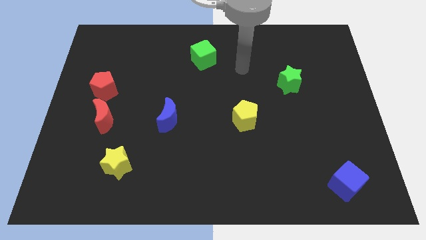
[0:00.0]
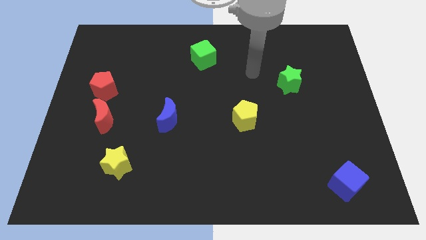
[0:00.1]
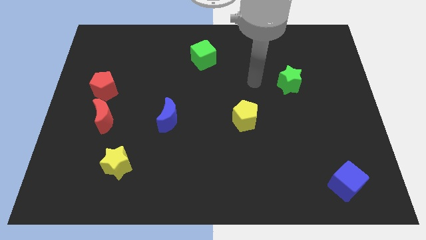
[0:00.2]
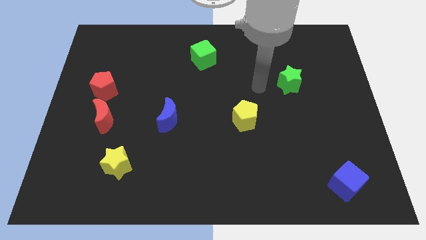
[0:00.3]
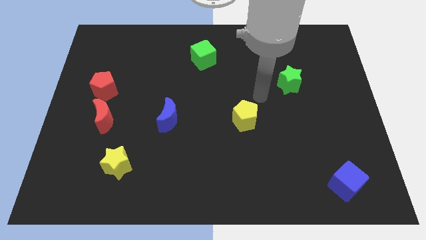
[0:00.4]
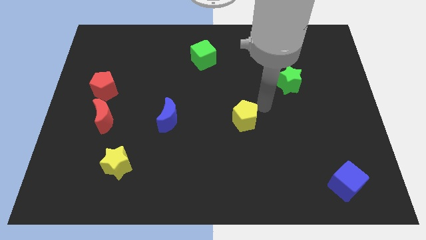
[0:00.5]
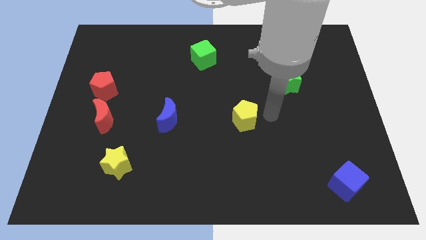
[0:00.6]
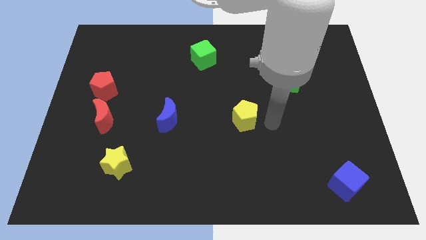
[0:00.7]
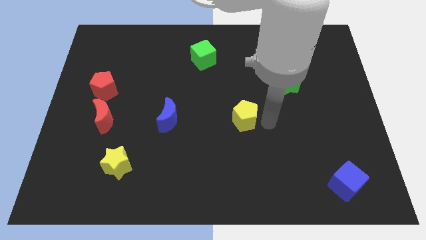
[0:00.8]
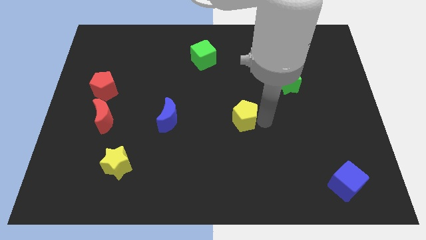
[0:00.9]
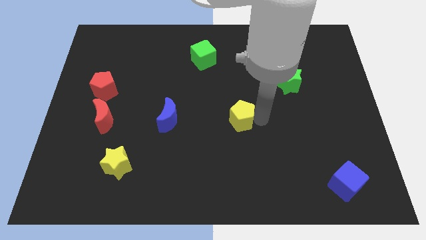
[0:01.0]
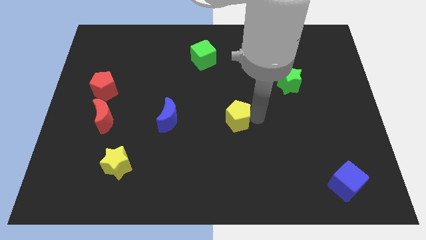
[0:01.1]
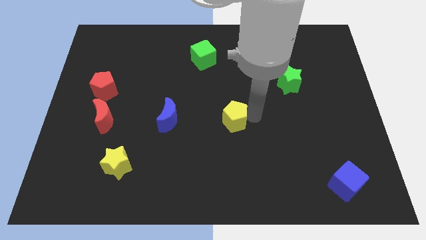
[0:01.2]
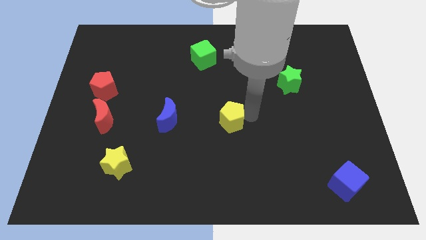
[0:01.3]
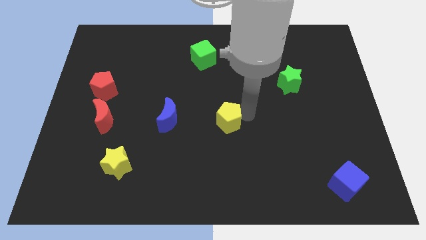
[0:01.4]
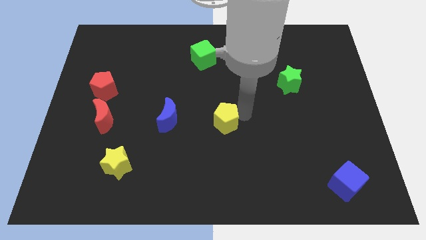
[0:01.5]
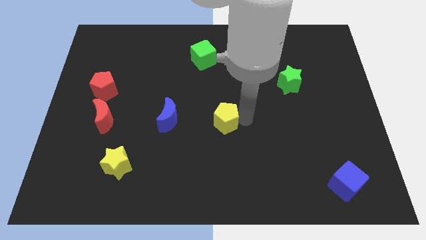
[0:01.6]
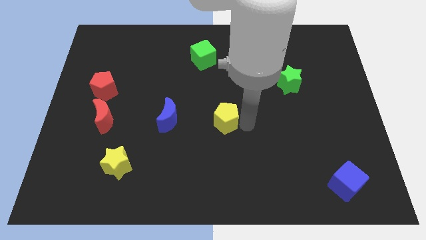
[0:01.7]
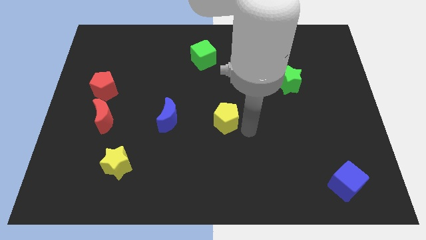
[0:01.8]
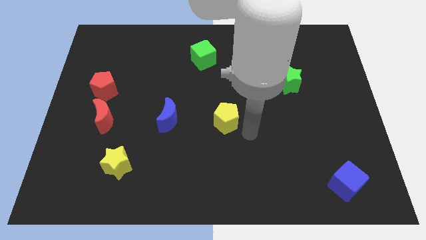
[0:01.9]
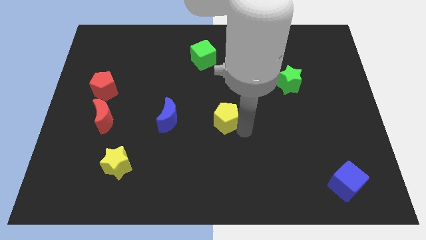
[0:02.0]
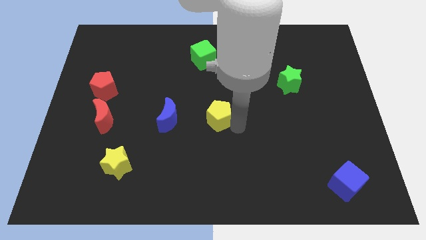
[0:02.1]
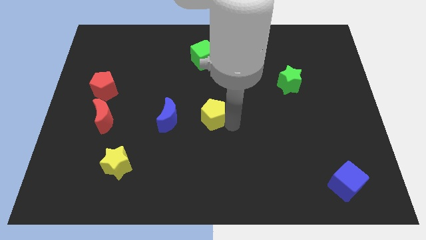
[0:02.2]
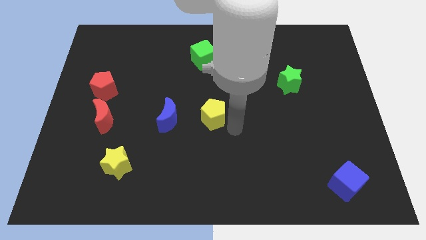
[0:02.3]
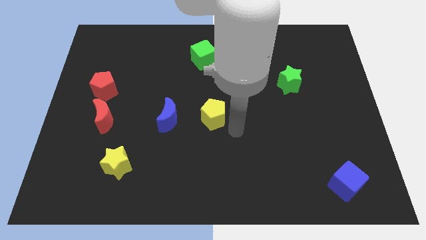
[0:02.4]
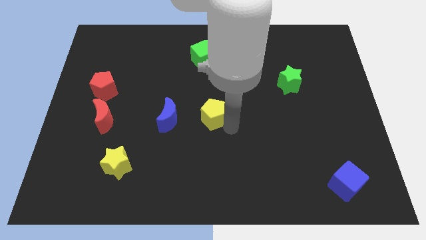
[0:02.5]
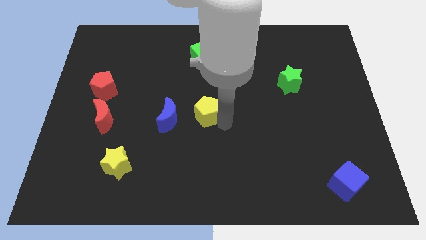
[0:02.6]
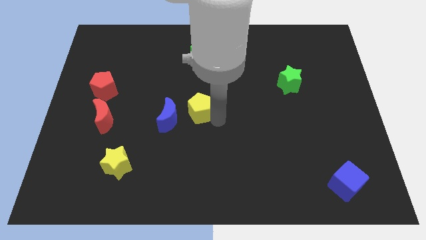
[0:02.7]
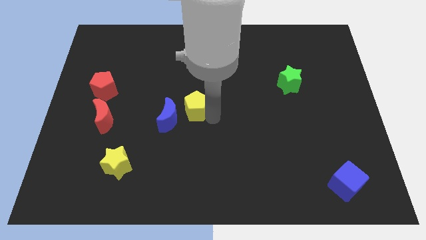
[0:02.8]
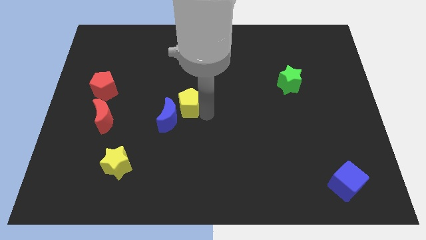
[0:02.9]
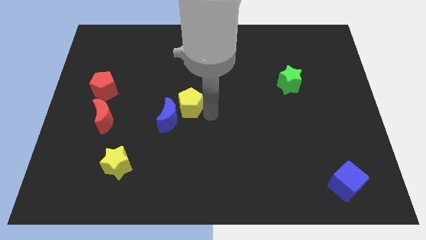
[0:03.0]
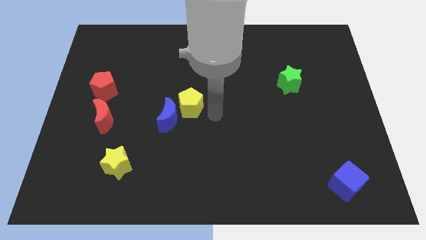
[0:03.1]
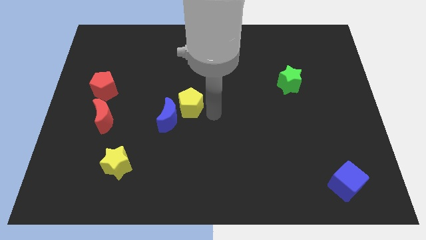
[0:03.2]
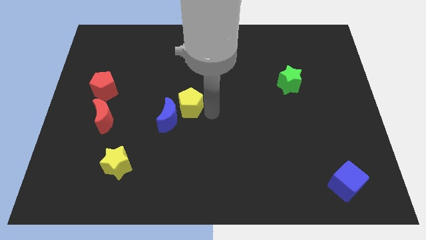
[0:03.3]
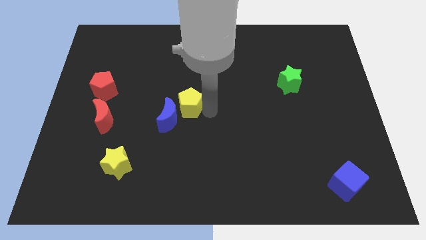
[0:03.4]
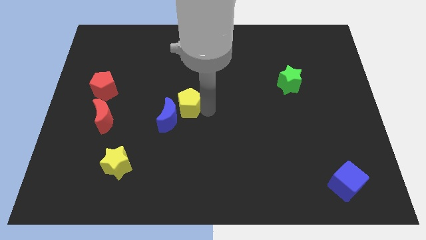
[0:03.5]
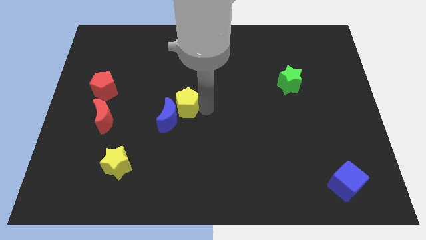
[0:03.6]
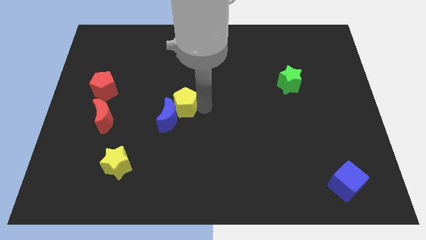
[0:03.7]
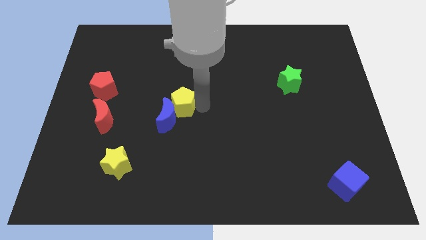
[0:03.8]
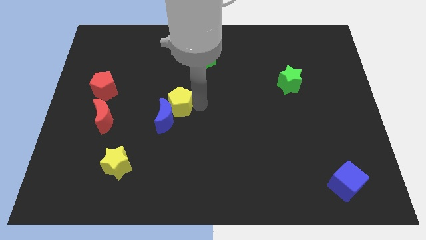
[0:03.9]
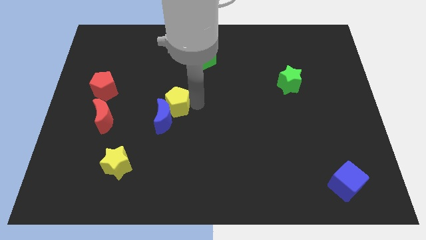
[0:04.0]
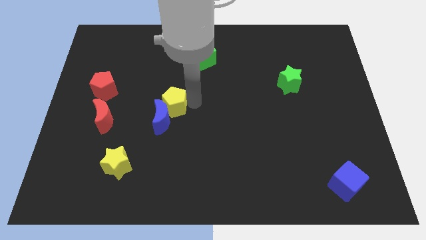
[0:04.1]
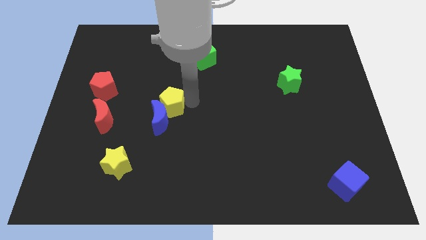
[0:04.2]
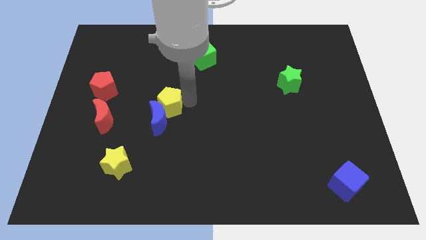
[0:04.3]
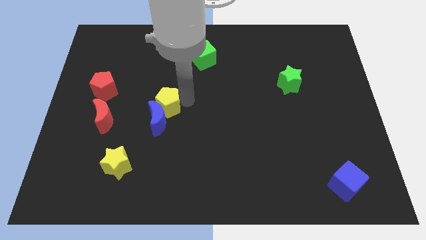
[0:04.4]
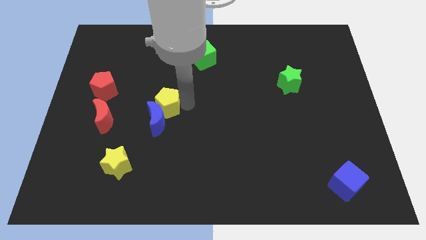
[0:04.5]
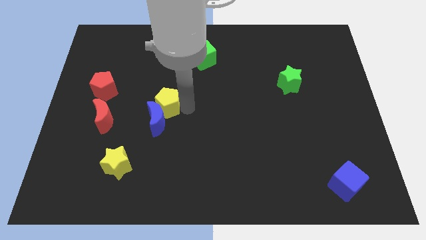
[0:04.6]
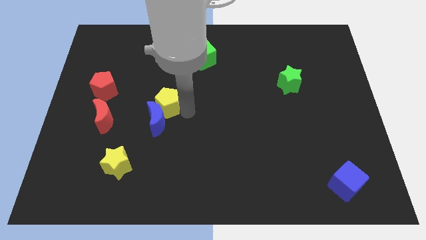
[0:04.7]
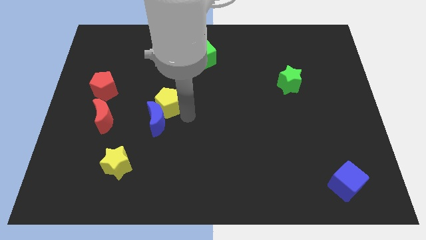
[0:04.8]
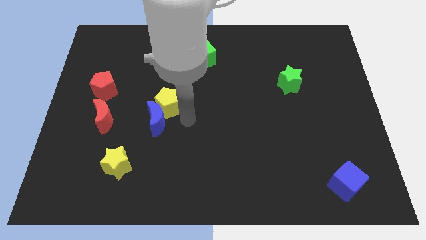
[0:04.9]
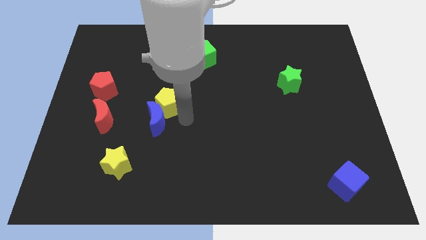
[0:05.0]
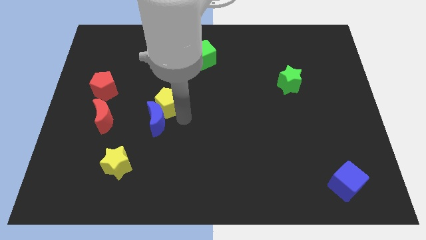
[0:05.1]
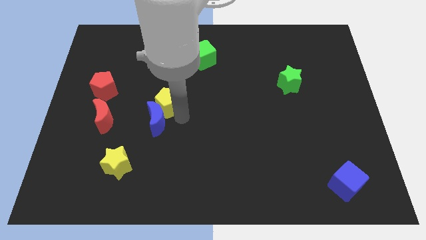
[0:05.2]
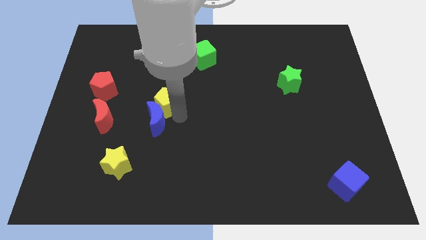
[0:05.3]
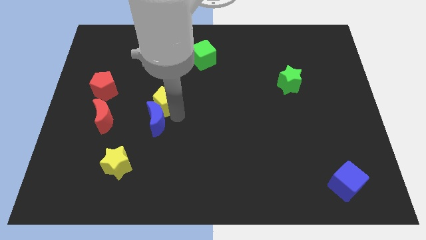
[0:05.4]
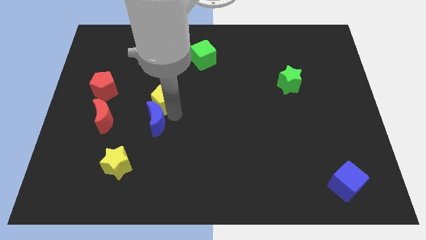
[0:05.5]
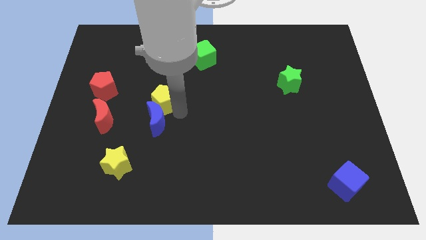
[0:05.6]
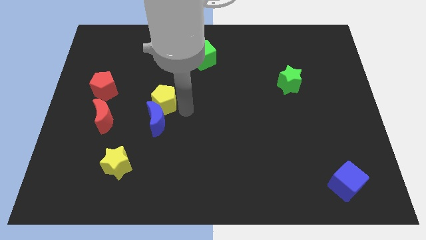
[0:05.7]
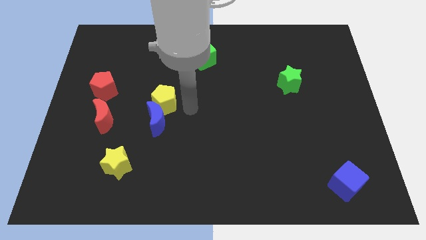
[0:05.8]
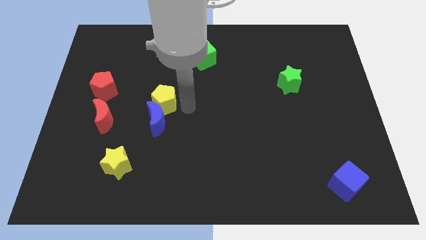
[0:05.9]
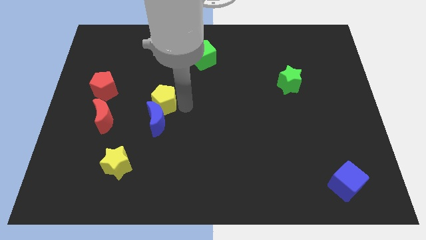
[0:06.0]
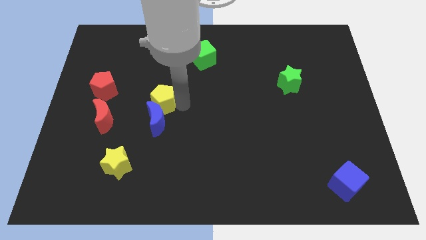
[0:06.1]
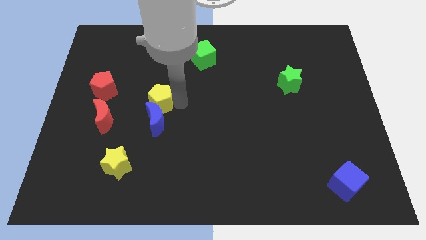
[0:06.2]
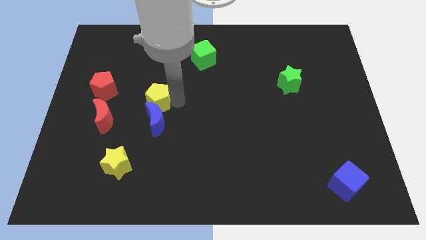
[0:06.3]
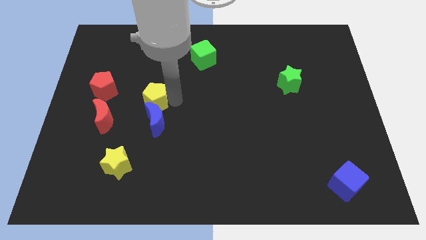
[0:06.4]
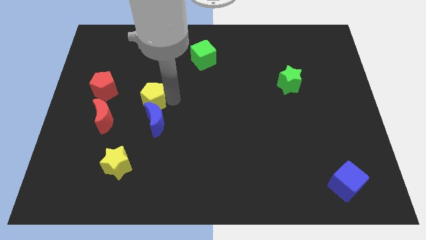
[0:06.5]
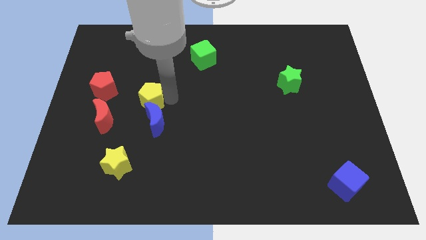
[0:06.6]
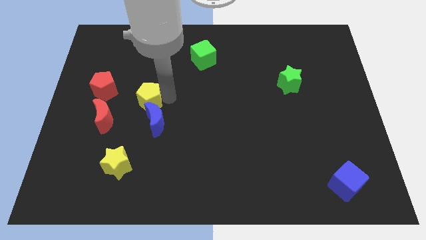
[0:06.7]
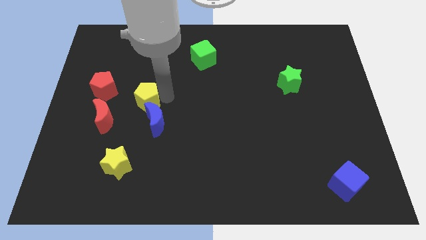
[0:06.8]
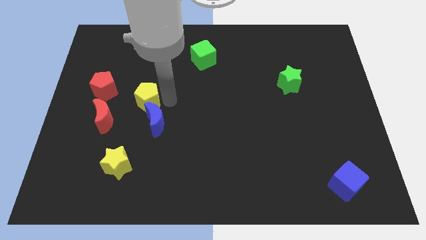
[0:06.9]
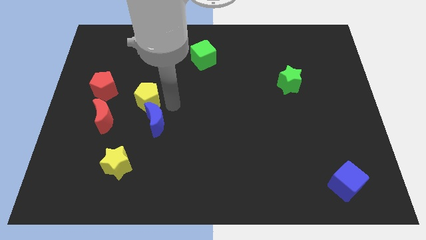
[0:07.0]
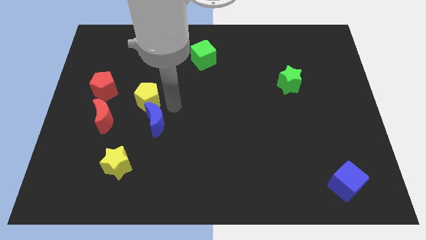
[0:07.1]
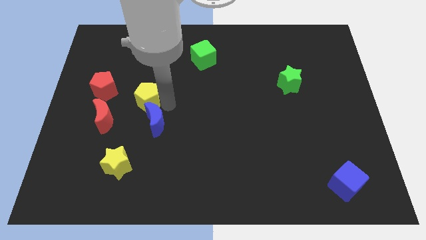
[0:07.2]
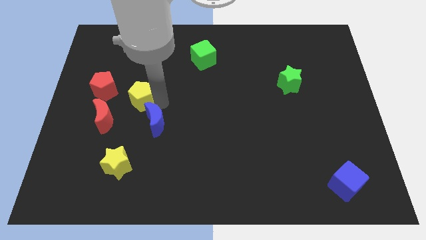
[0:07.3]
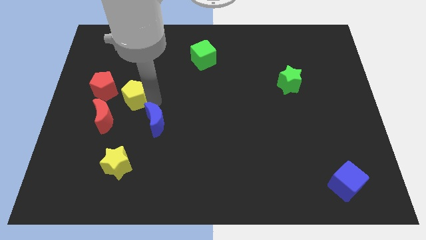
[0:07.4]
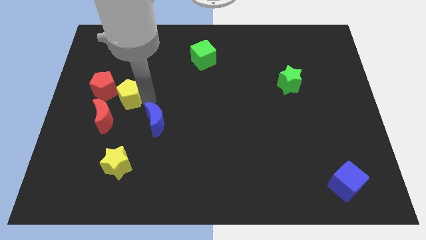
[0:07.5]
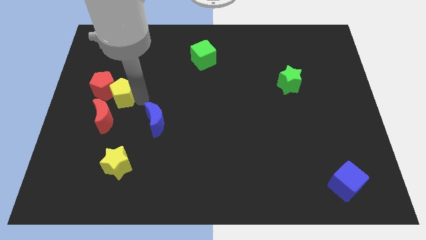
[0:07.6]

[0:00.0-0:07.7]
slide the yellow pentagon next to the red pentagon
